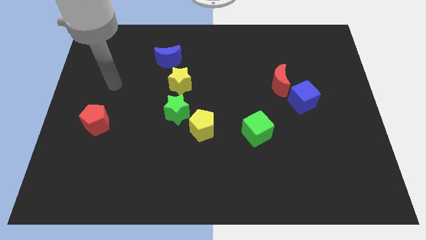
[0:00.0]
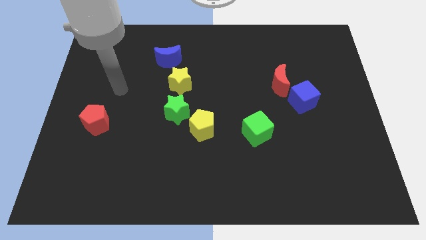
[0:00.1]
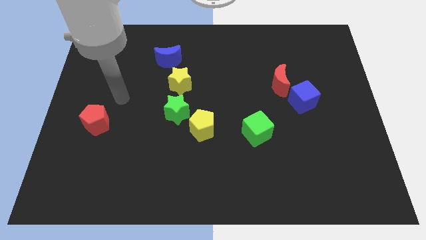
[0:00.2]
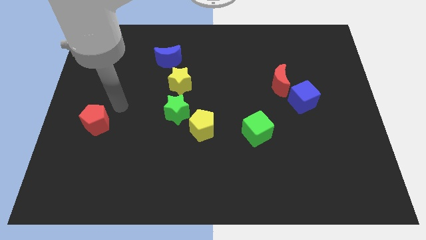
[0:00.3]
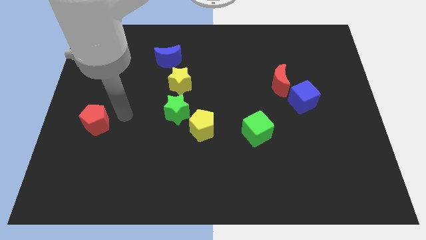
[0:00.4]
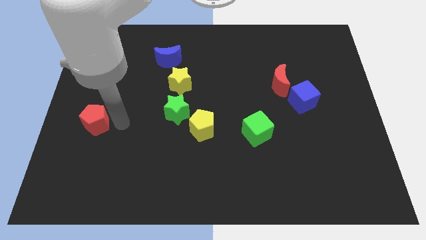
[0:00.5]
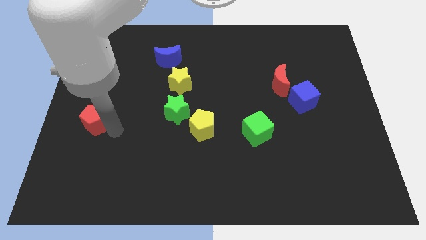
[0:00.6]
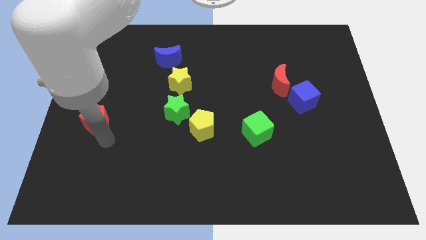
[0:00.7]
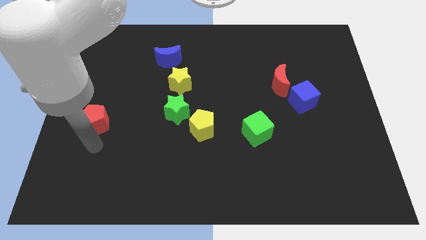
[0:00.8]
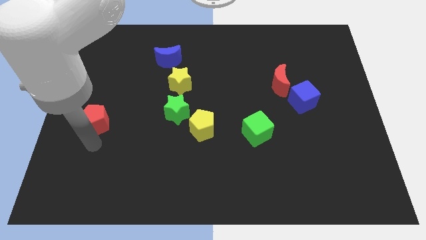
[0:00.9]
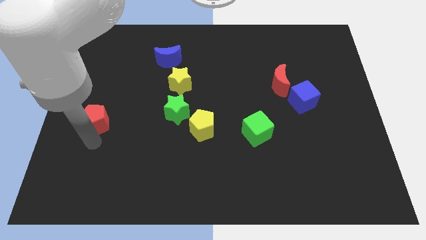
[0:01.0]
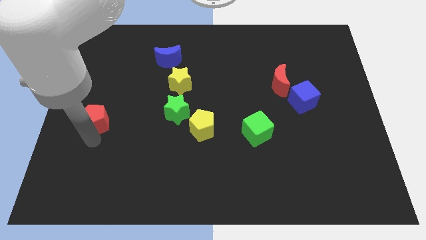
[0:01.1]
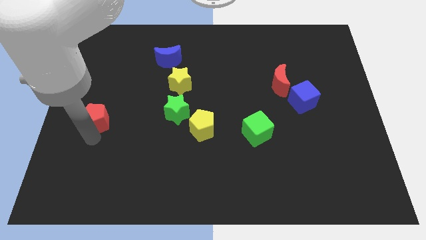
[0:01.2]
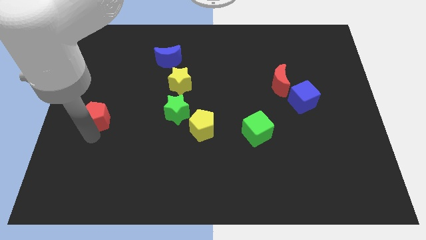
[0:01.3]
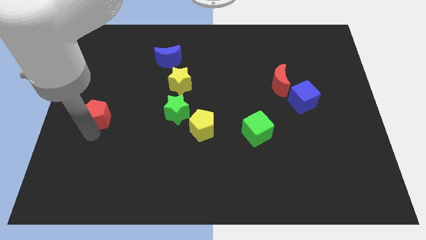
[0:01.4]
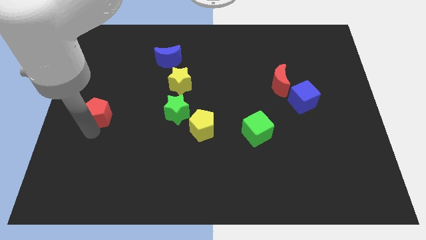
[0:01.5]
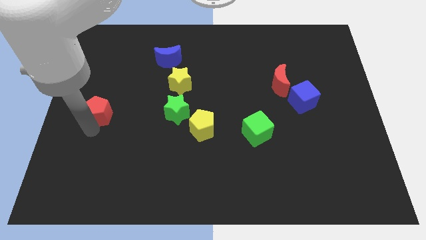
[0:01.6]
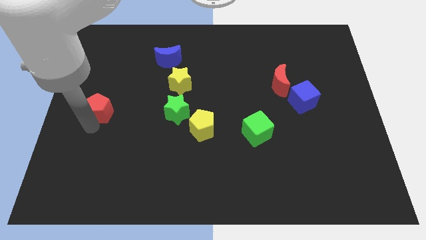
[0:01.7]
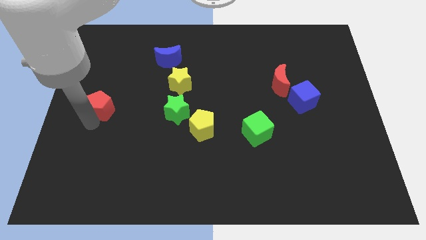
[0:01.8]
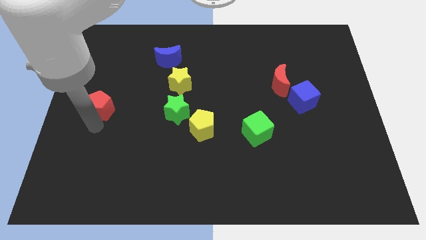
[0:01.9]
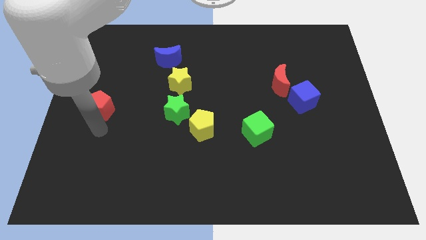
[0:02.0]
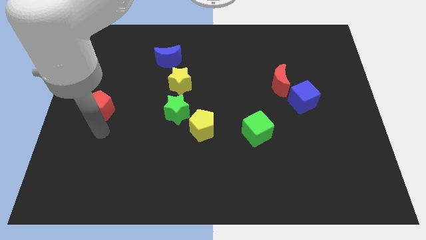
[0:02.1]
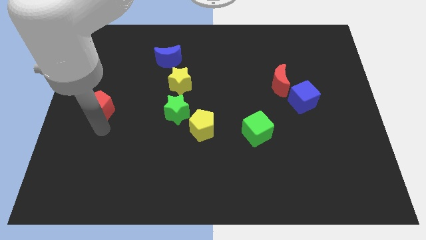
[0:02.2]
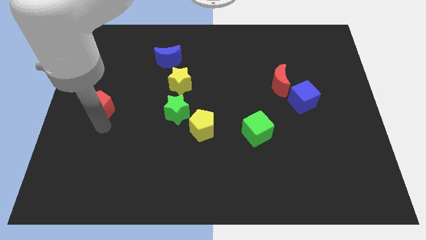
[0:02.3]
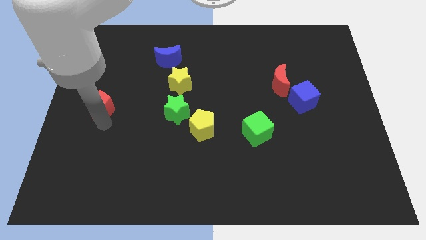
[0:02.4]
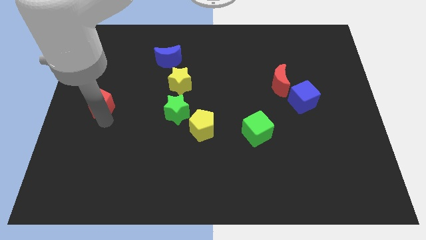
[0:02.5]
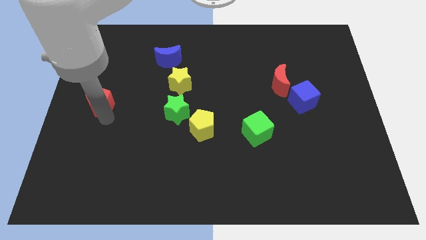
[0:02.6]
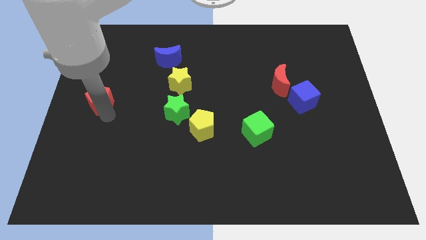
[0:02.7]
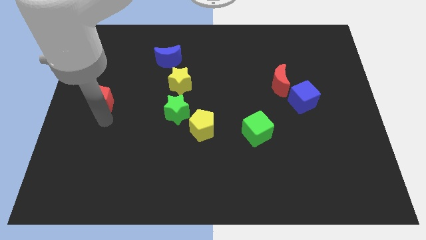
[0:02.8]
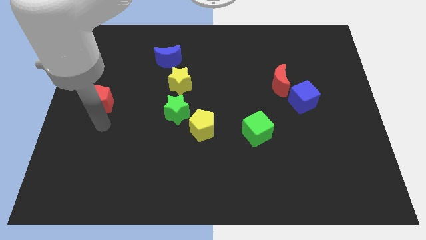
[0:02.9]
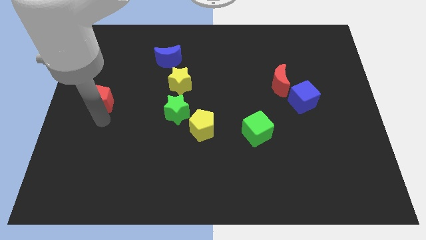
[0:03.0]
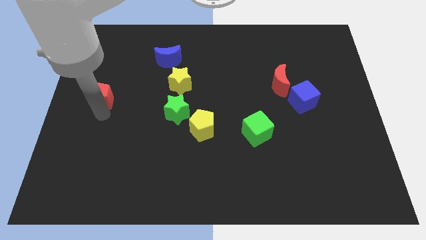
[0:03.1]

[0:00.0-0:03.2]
slightly move the red pentagon up

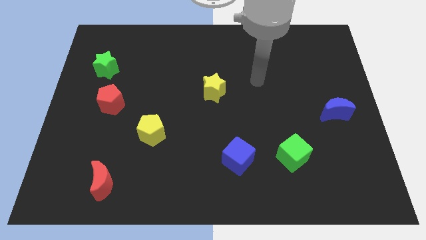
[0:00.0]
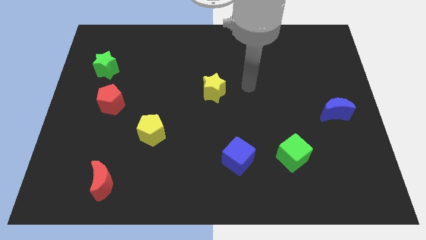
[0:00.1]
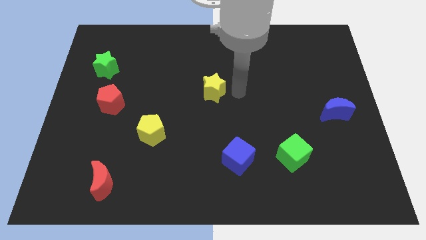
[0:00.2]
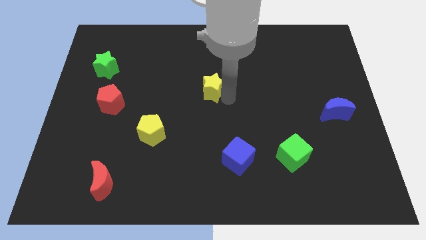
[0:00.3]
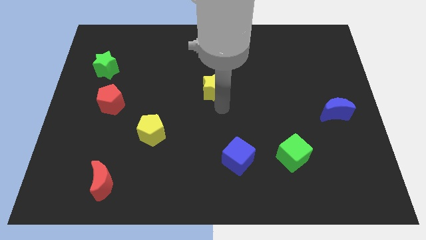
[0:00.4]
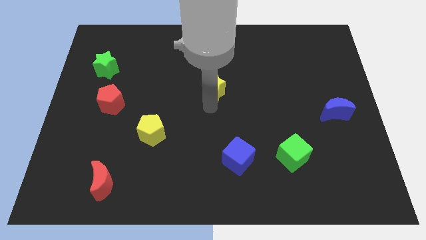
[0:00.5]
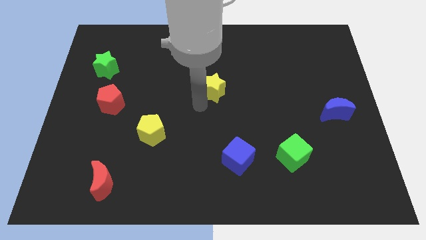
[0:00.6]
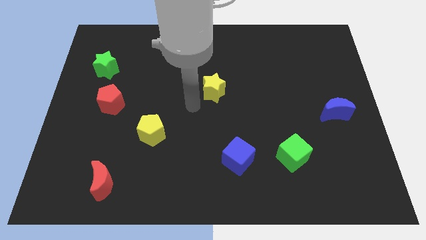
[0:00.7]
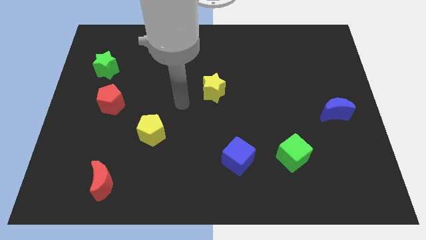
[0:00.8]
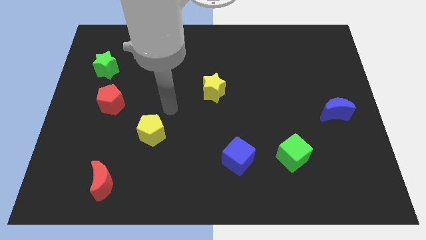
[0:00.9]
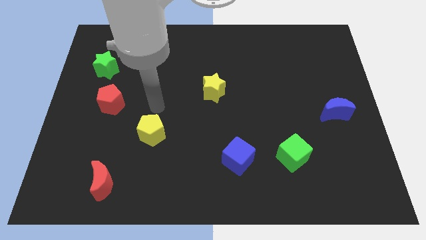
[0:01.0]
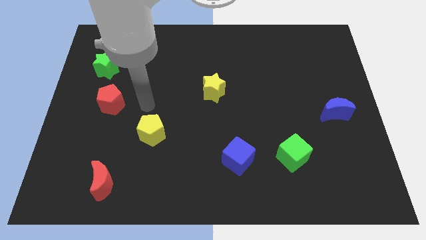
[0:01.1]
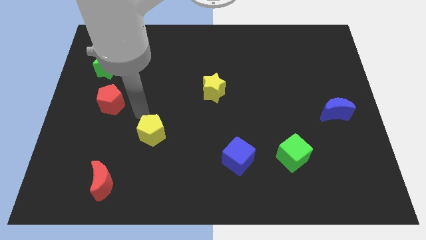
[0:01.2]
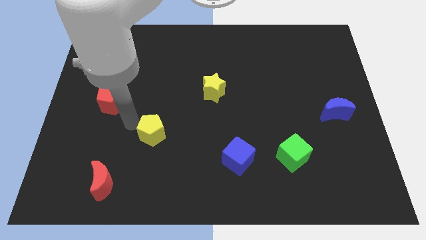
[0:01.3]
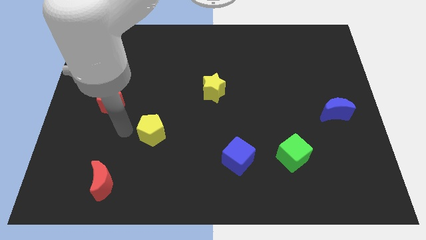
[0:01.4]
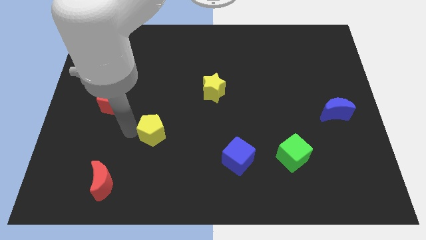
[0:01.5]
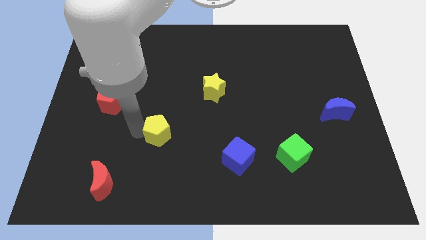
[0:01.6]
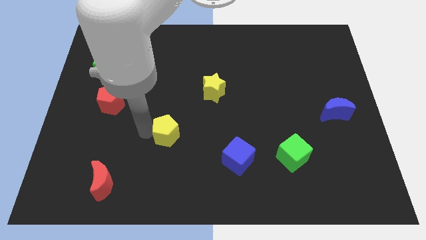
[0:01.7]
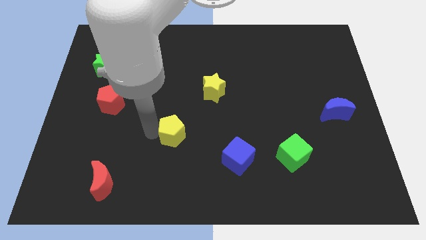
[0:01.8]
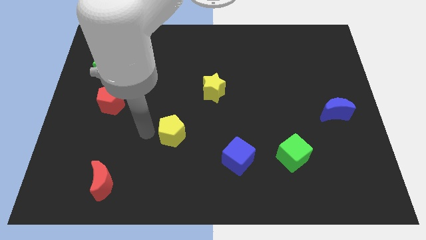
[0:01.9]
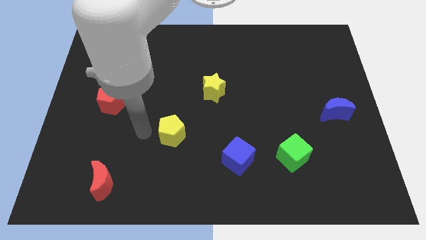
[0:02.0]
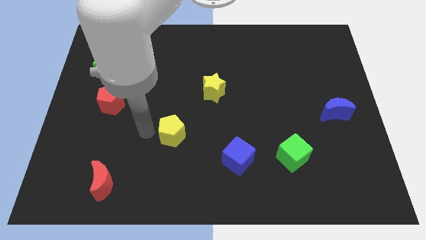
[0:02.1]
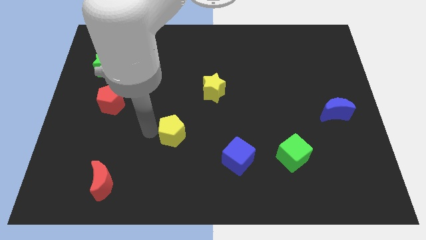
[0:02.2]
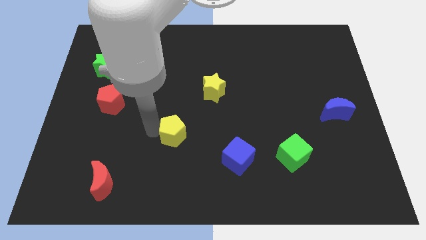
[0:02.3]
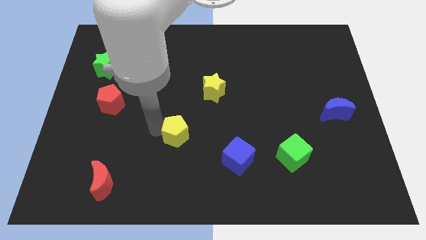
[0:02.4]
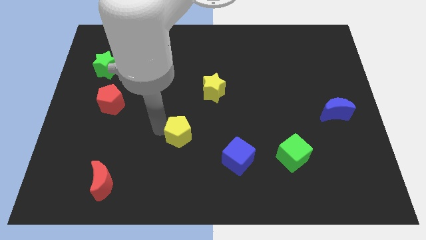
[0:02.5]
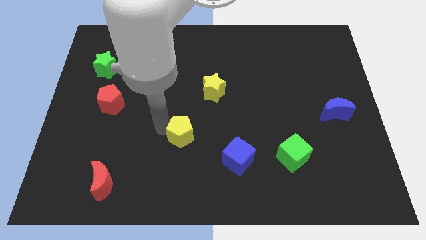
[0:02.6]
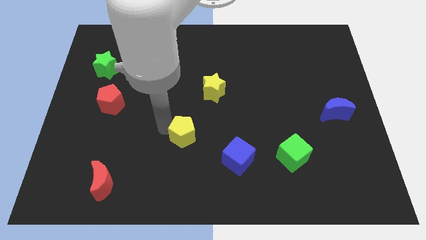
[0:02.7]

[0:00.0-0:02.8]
slightly push the yellow pentagon right

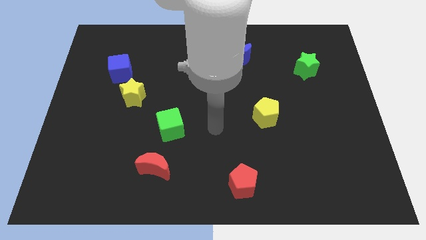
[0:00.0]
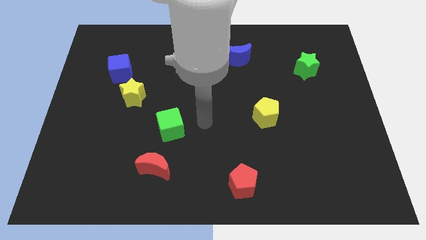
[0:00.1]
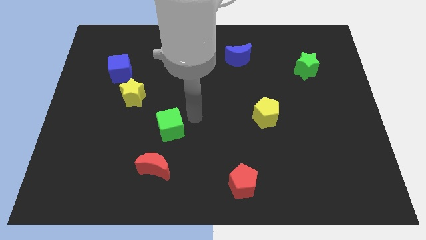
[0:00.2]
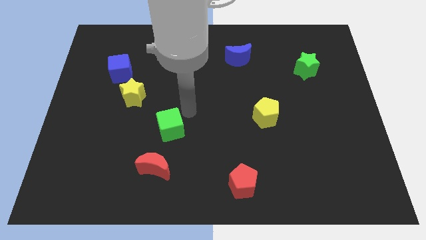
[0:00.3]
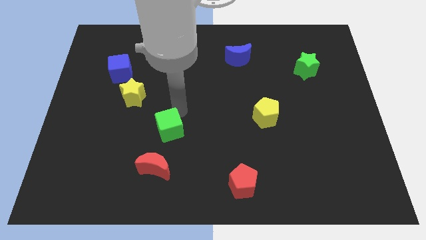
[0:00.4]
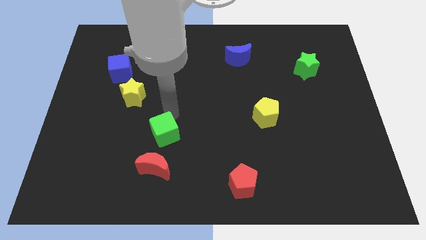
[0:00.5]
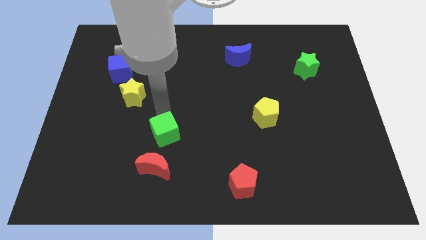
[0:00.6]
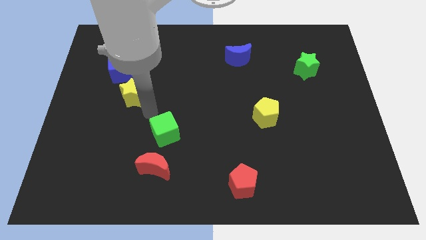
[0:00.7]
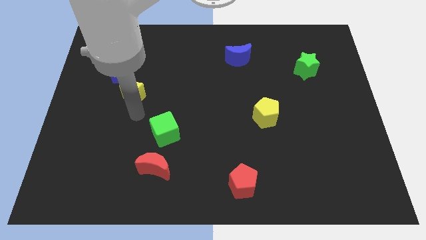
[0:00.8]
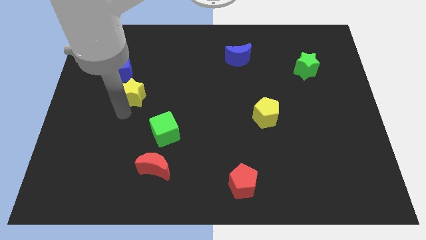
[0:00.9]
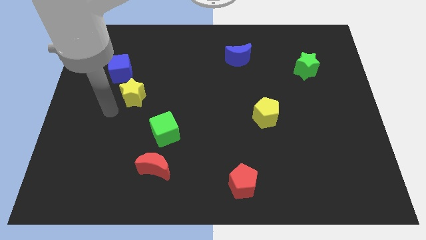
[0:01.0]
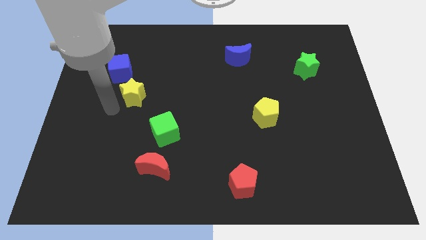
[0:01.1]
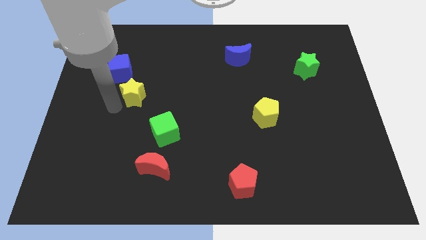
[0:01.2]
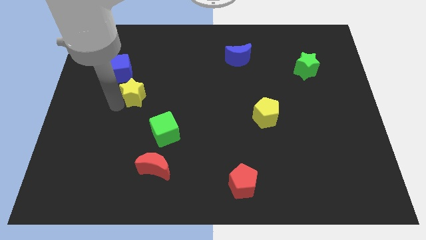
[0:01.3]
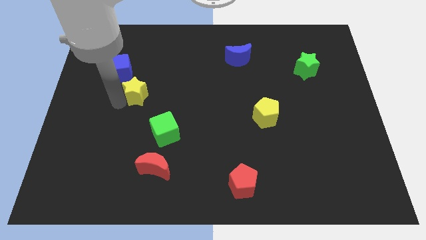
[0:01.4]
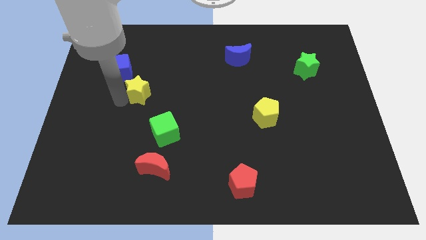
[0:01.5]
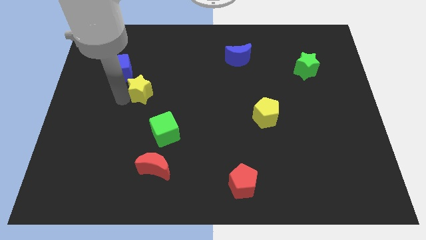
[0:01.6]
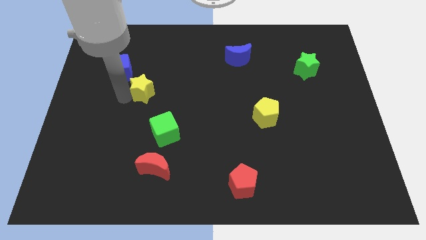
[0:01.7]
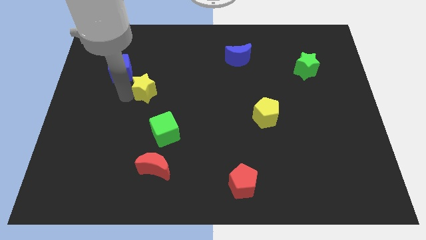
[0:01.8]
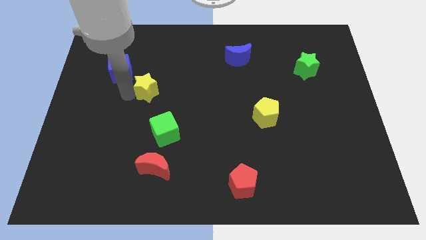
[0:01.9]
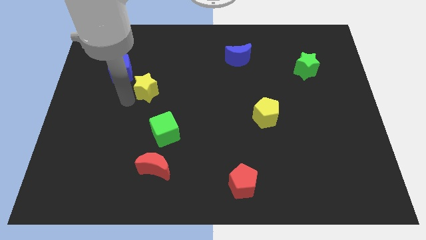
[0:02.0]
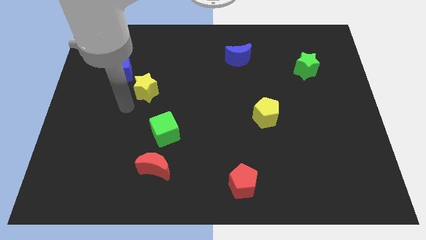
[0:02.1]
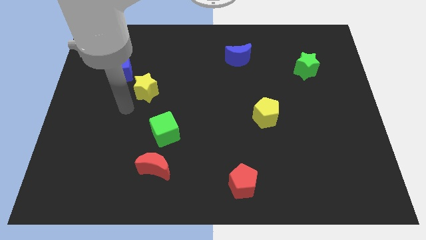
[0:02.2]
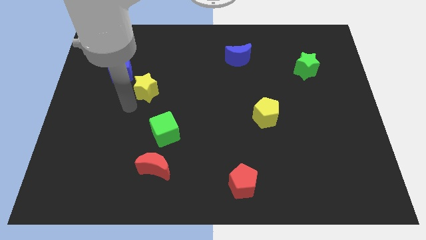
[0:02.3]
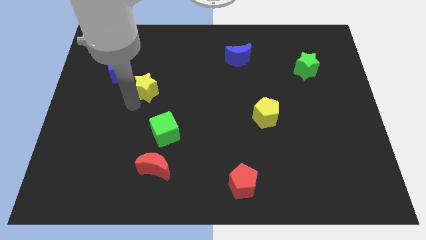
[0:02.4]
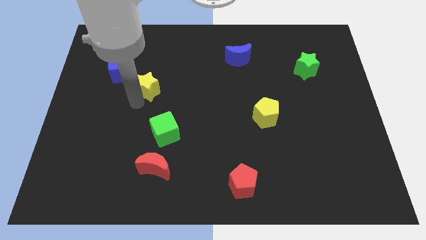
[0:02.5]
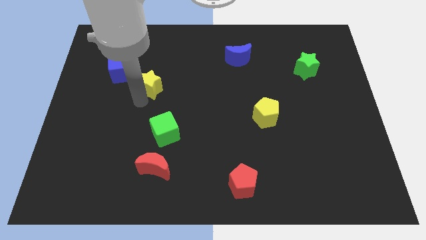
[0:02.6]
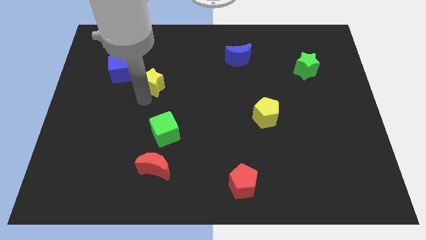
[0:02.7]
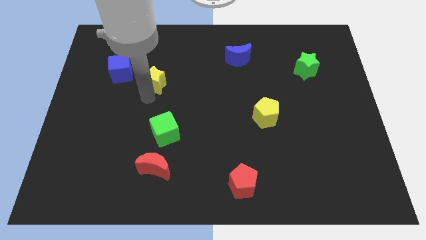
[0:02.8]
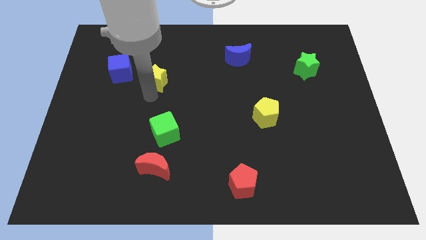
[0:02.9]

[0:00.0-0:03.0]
push the yellow star slightly up and to the right diagonally
